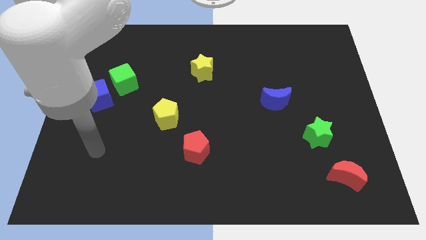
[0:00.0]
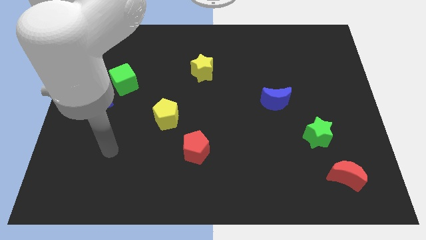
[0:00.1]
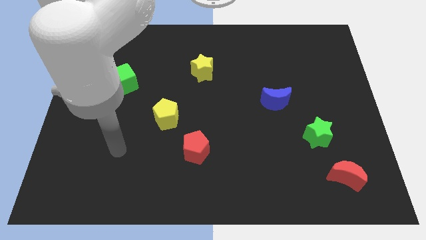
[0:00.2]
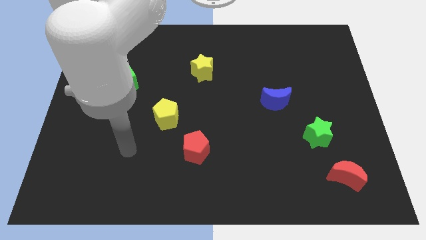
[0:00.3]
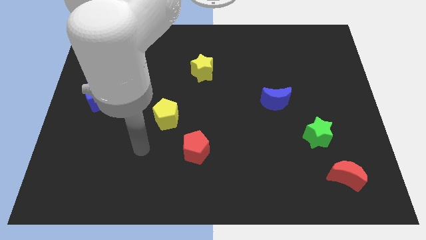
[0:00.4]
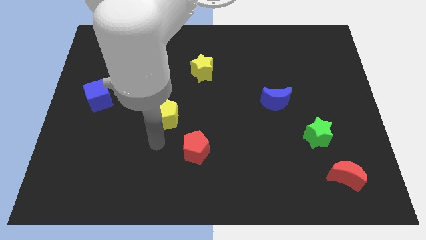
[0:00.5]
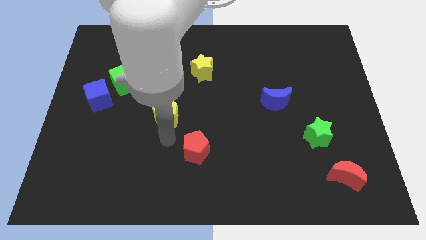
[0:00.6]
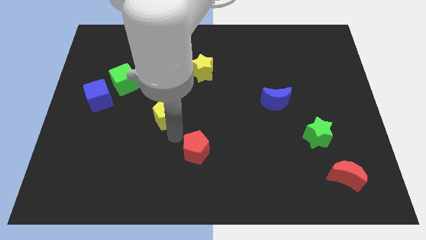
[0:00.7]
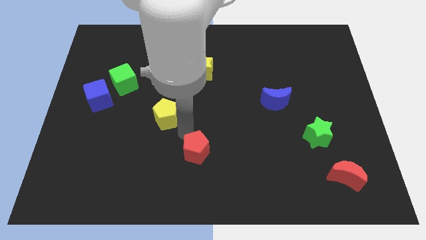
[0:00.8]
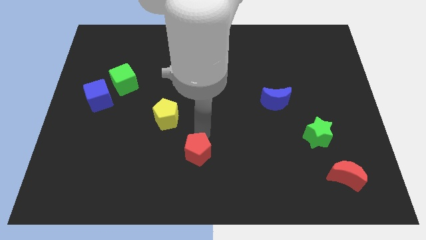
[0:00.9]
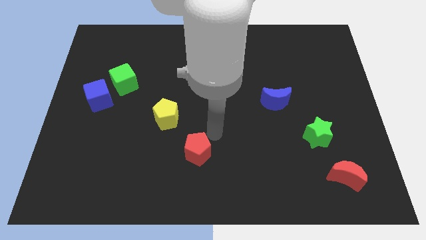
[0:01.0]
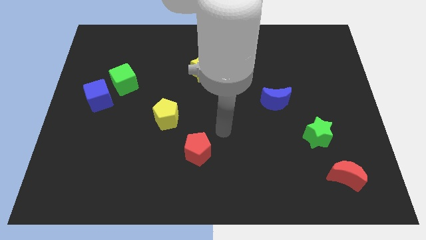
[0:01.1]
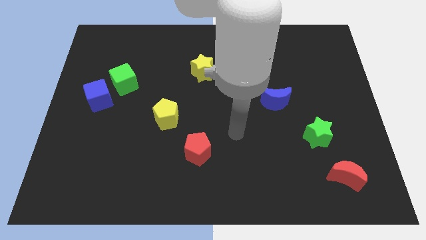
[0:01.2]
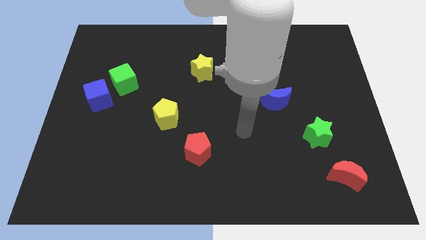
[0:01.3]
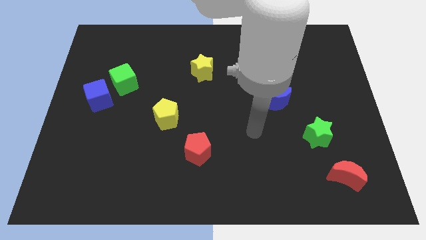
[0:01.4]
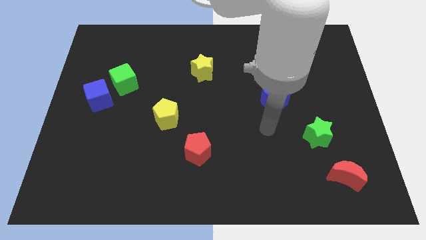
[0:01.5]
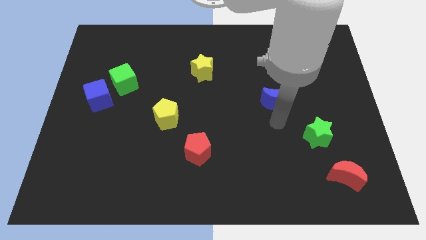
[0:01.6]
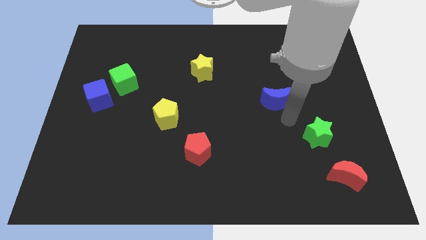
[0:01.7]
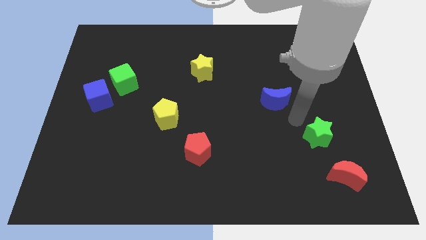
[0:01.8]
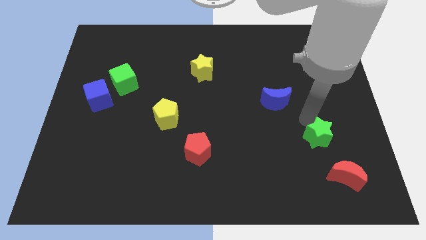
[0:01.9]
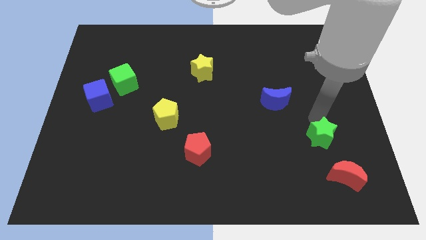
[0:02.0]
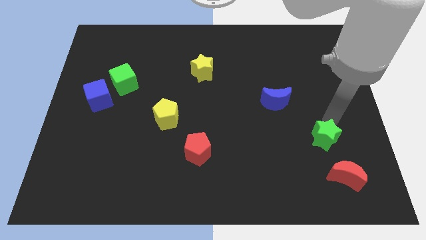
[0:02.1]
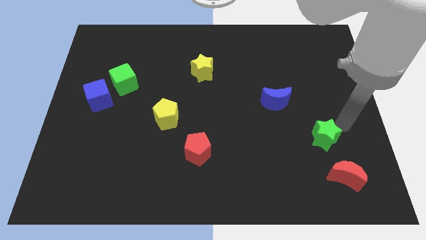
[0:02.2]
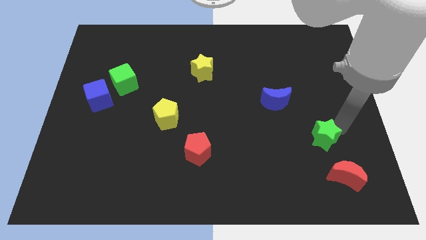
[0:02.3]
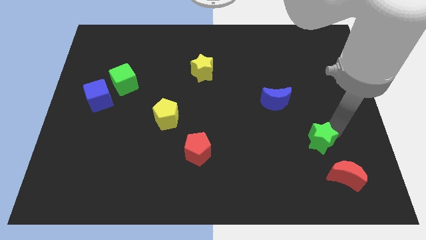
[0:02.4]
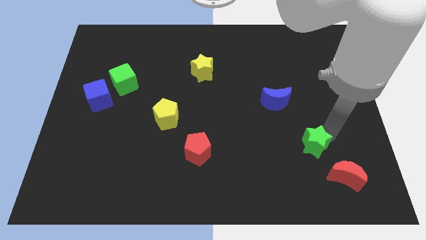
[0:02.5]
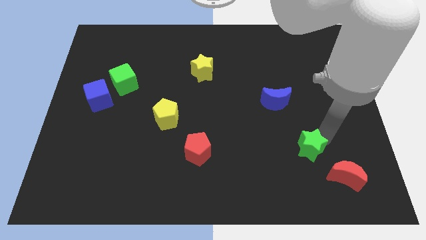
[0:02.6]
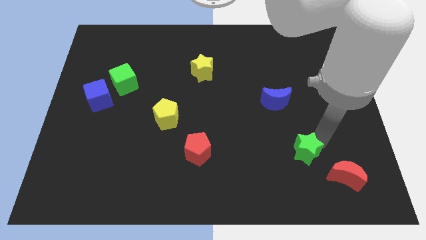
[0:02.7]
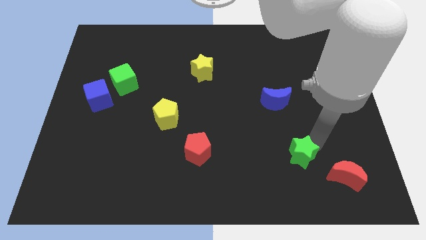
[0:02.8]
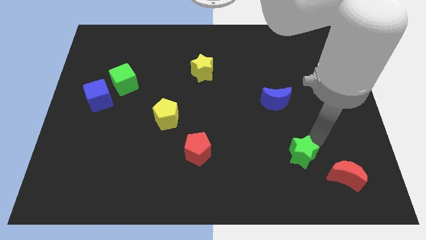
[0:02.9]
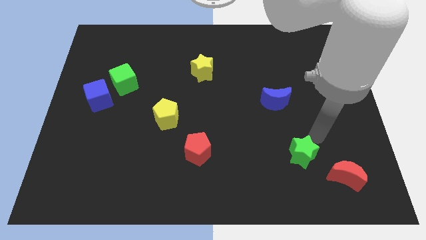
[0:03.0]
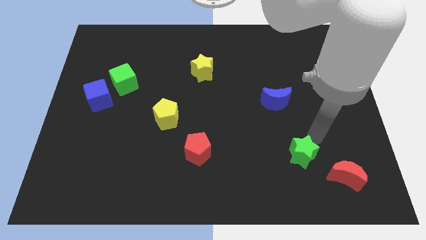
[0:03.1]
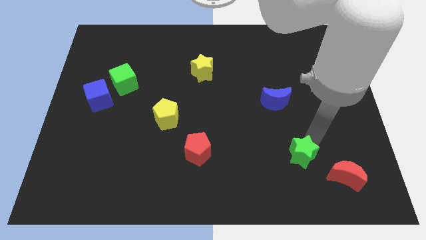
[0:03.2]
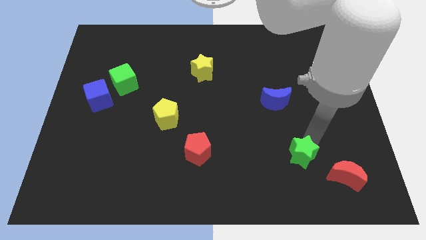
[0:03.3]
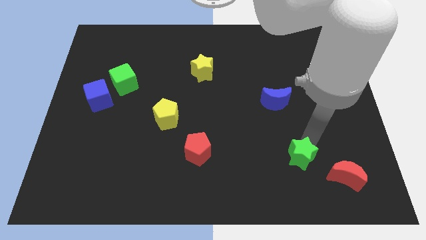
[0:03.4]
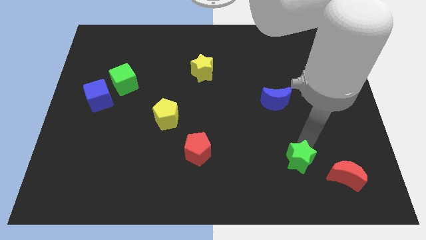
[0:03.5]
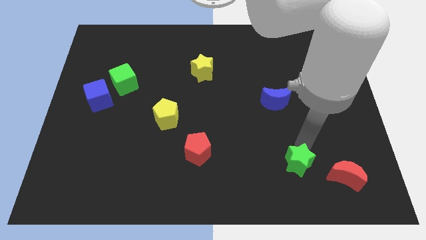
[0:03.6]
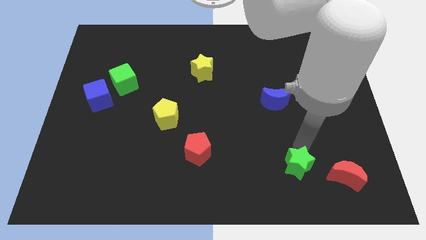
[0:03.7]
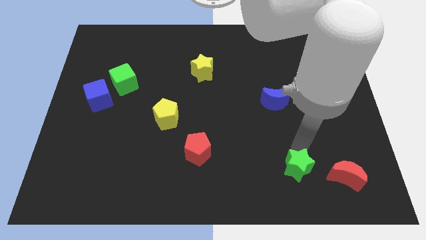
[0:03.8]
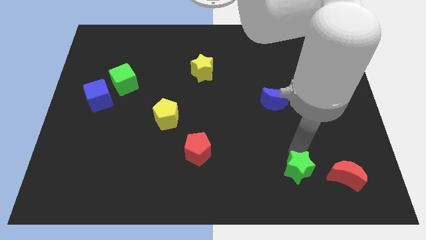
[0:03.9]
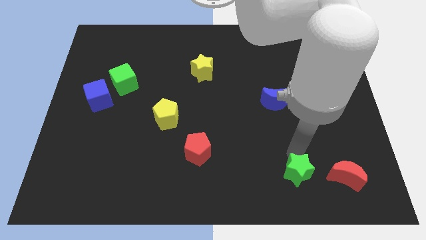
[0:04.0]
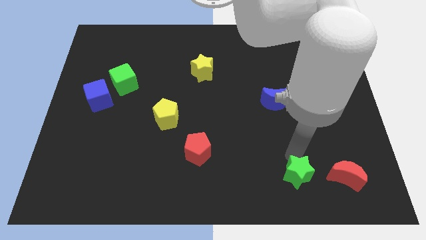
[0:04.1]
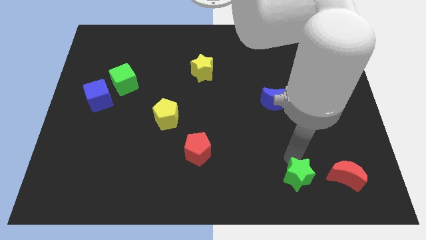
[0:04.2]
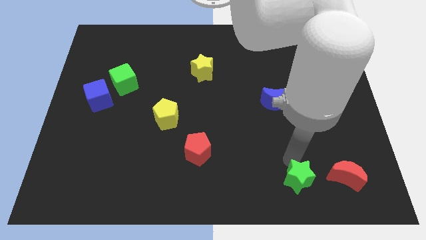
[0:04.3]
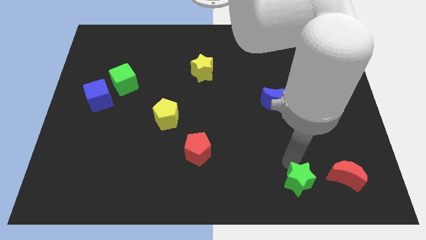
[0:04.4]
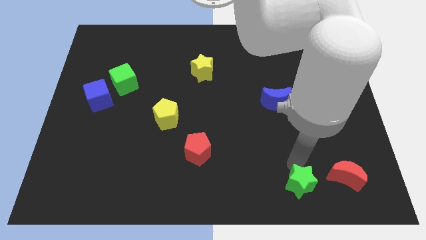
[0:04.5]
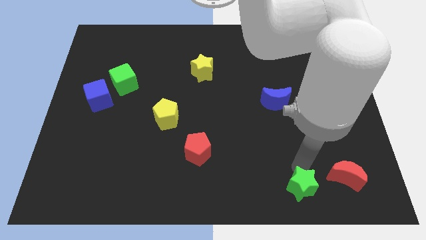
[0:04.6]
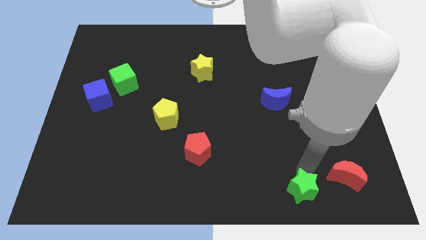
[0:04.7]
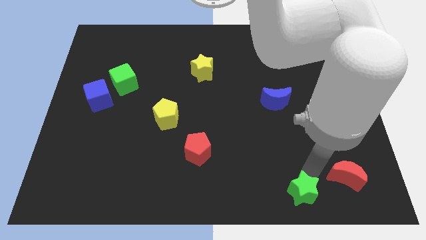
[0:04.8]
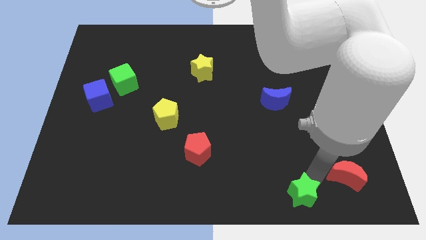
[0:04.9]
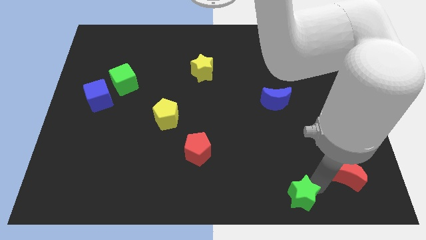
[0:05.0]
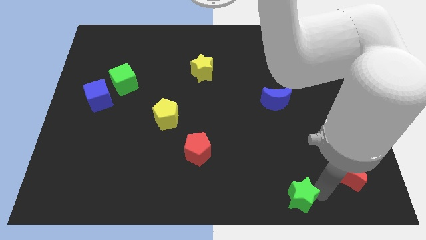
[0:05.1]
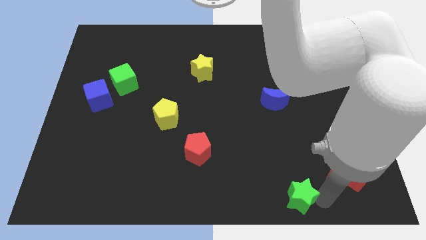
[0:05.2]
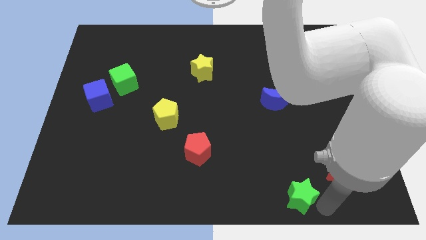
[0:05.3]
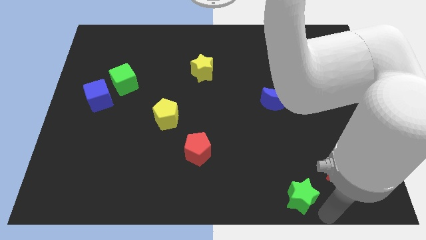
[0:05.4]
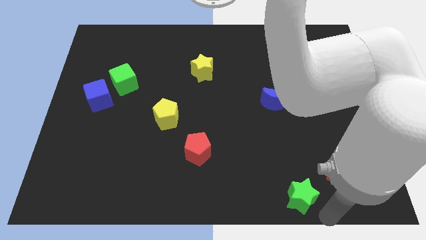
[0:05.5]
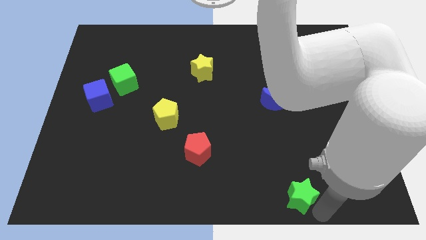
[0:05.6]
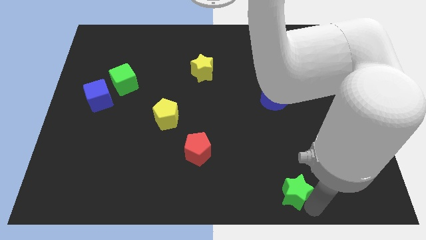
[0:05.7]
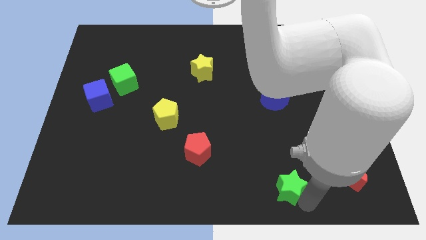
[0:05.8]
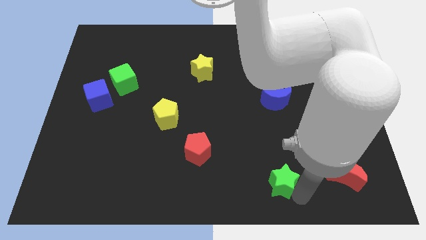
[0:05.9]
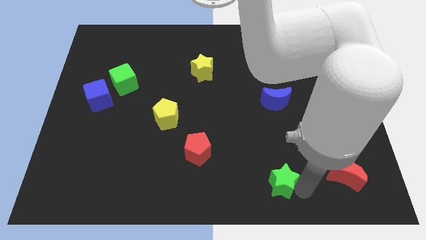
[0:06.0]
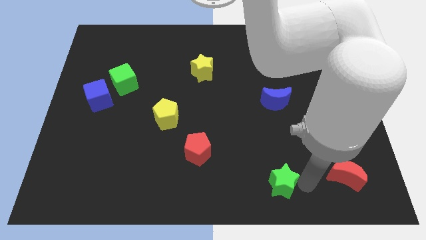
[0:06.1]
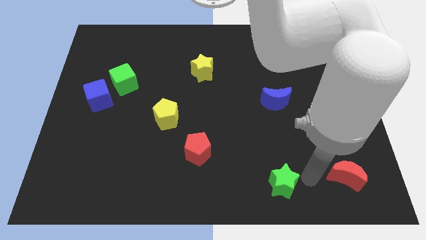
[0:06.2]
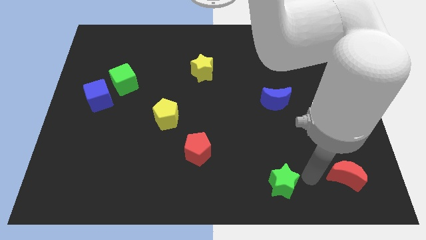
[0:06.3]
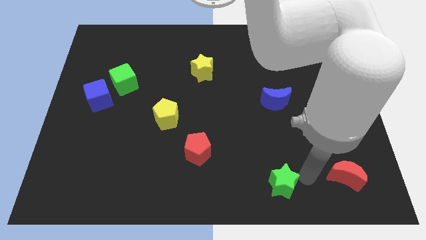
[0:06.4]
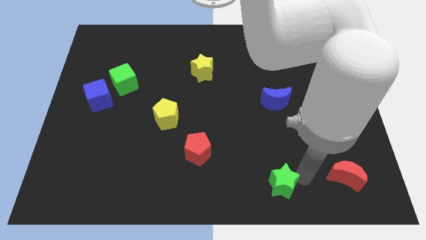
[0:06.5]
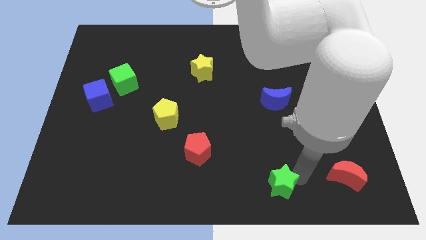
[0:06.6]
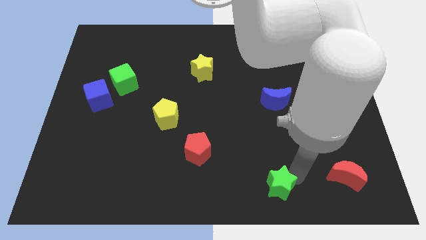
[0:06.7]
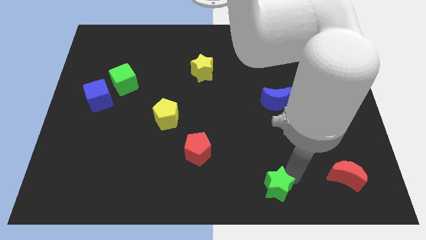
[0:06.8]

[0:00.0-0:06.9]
move the green star to the bottom
